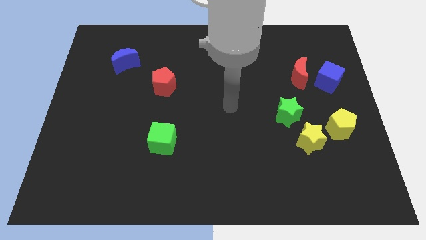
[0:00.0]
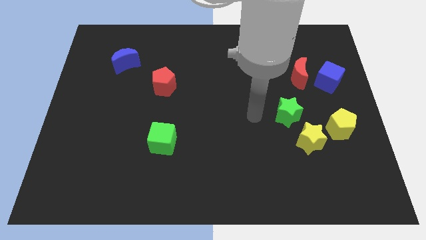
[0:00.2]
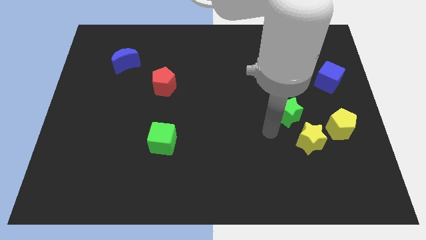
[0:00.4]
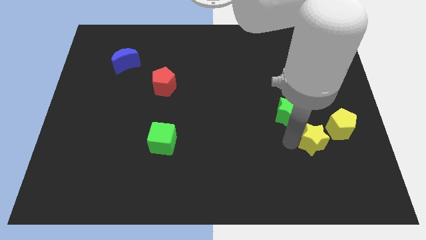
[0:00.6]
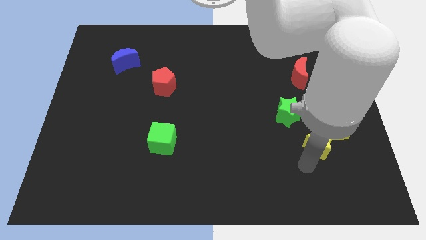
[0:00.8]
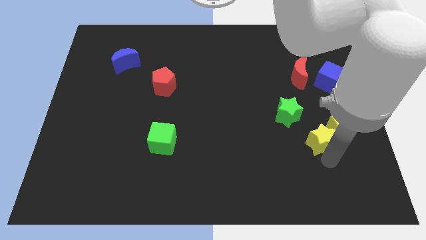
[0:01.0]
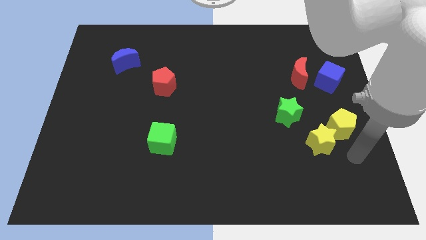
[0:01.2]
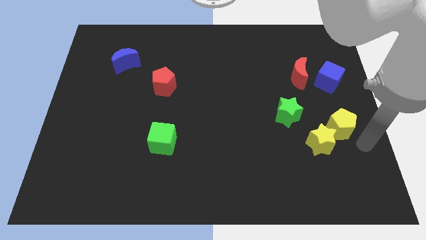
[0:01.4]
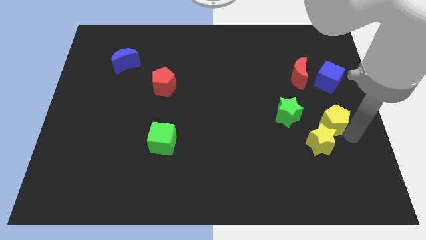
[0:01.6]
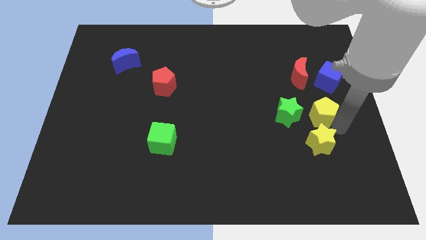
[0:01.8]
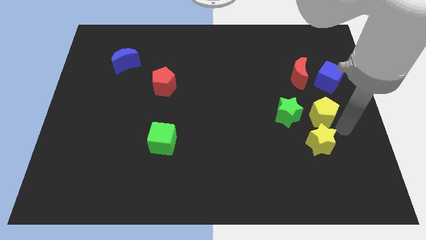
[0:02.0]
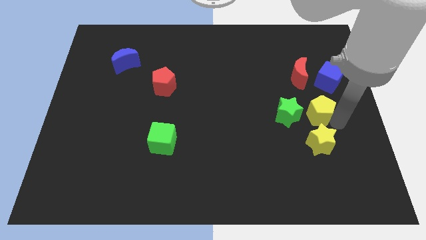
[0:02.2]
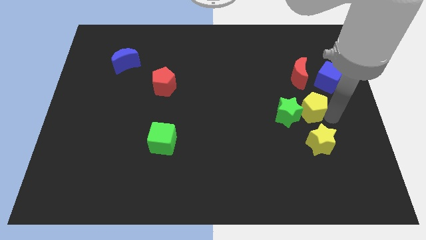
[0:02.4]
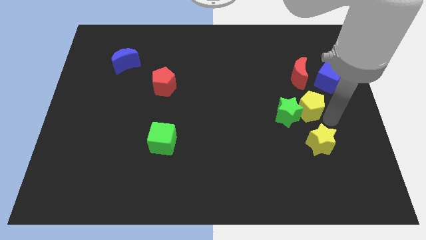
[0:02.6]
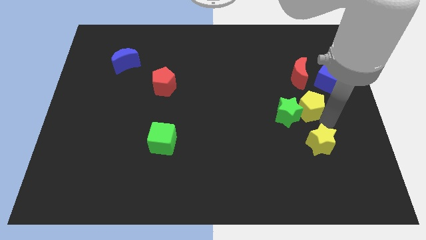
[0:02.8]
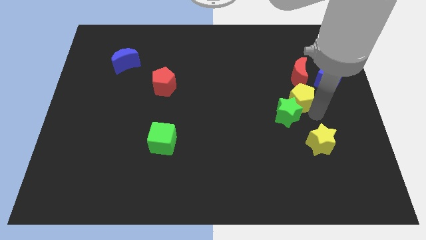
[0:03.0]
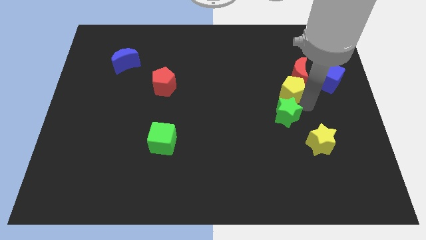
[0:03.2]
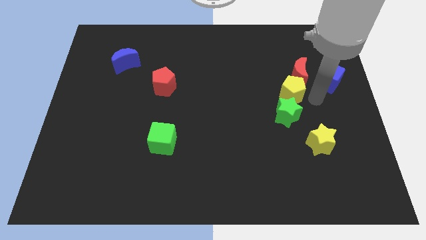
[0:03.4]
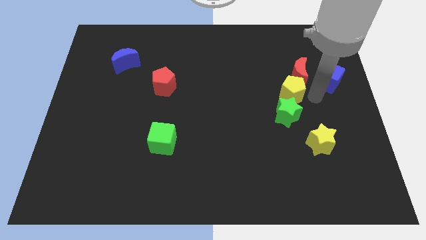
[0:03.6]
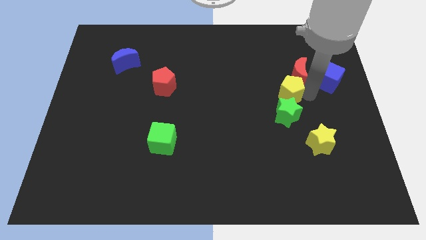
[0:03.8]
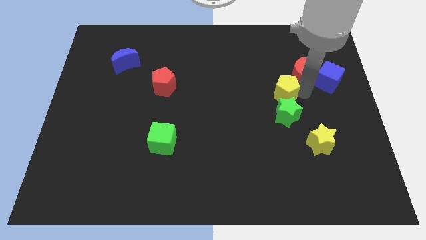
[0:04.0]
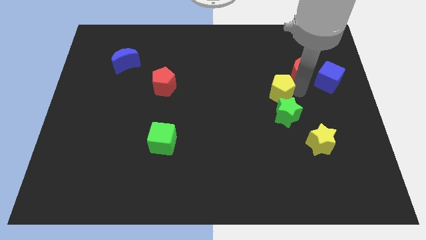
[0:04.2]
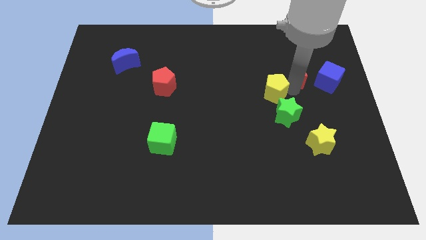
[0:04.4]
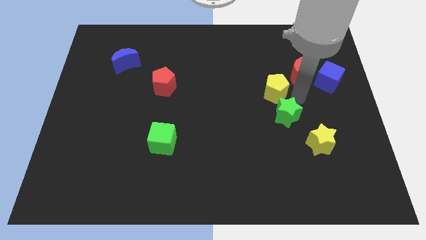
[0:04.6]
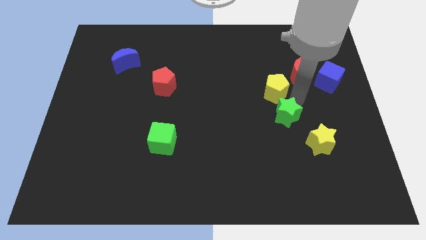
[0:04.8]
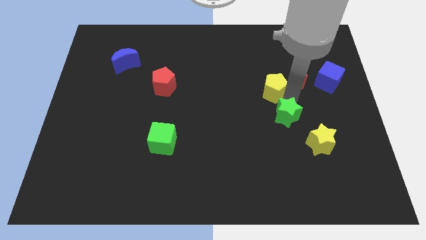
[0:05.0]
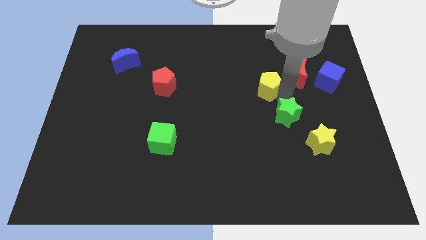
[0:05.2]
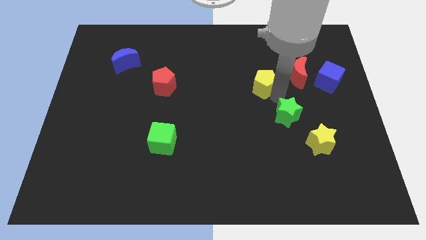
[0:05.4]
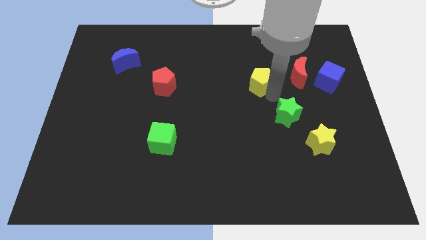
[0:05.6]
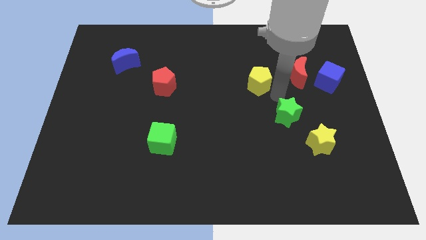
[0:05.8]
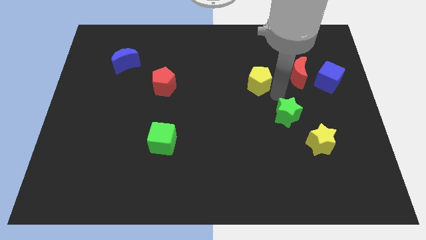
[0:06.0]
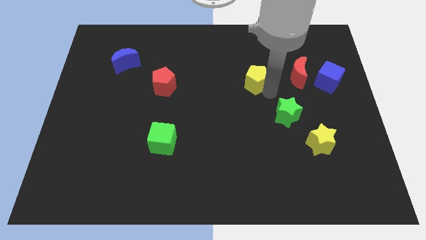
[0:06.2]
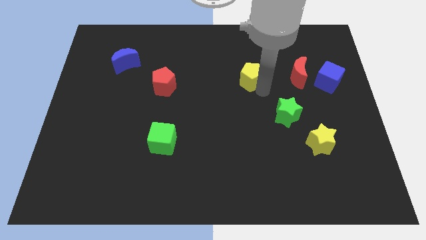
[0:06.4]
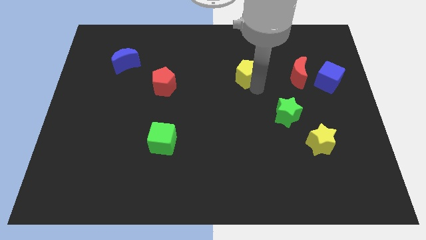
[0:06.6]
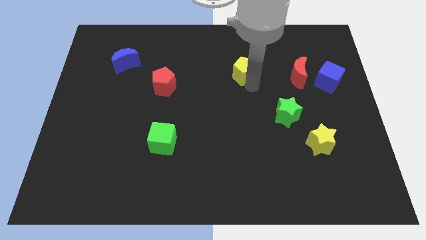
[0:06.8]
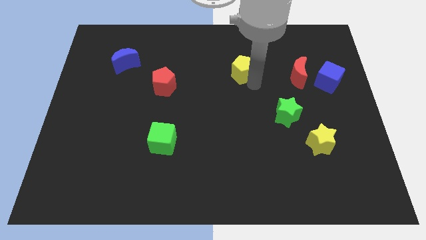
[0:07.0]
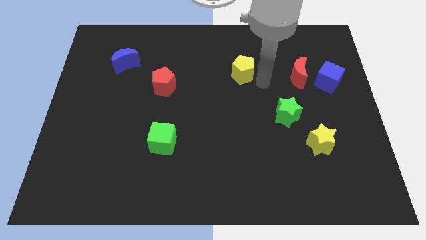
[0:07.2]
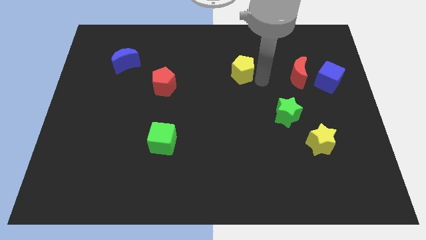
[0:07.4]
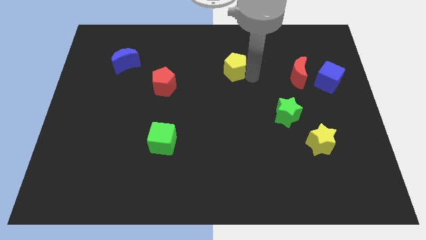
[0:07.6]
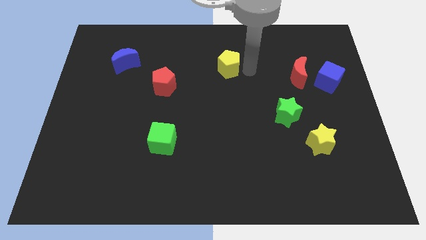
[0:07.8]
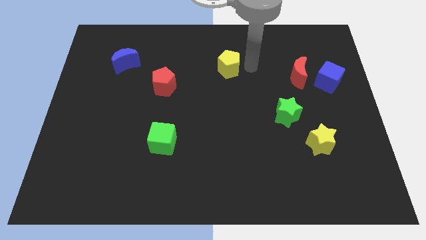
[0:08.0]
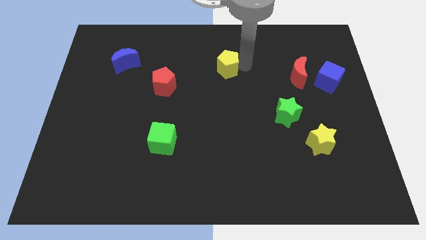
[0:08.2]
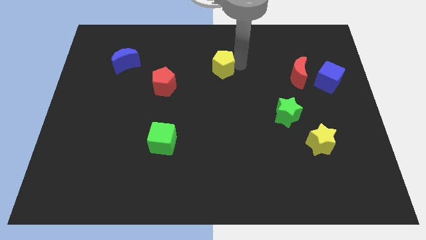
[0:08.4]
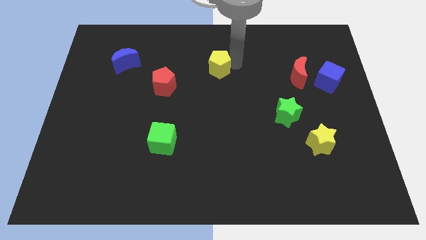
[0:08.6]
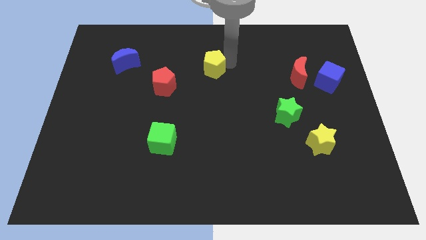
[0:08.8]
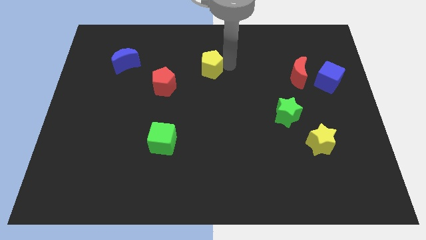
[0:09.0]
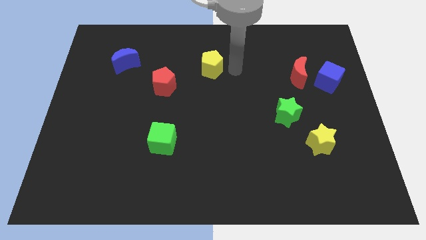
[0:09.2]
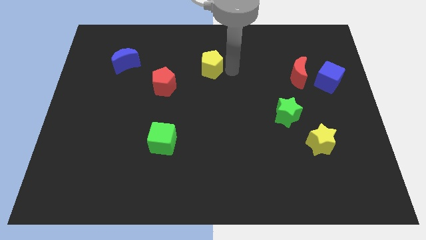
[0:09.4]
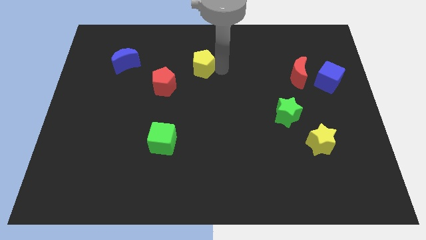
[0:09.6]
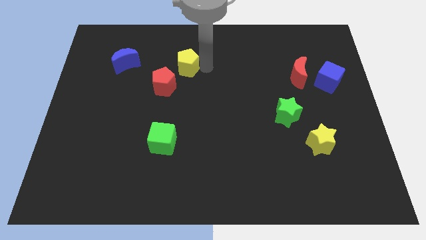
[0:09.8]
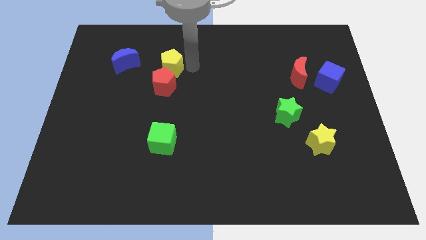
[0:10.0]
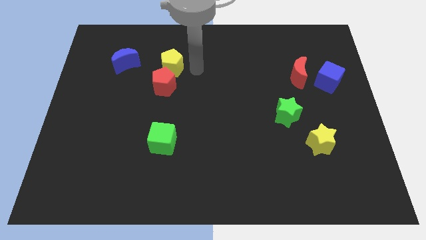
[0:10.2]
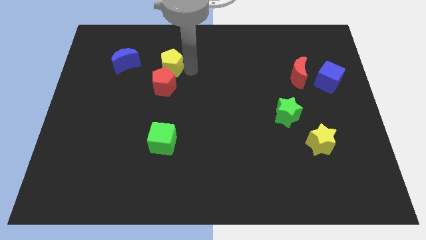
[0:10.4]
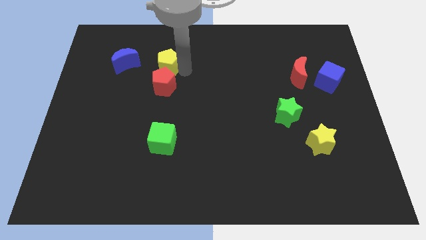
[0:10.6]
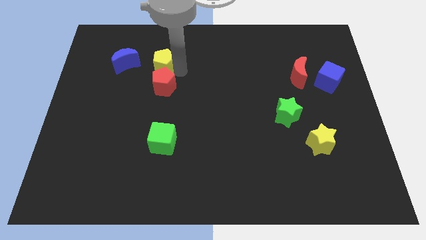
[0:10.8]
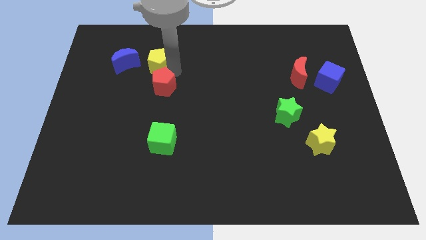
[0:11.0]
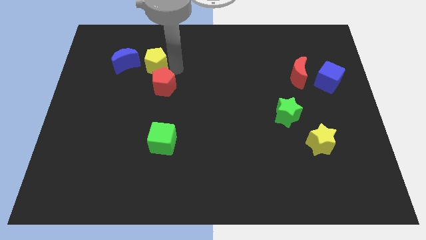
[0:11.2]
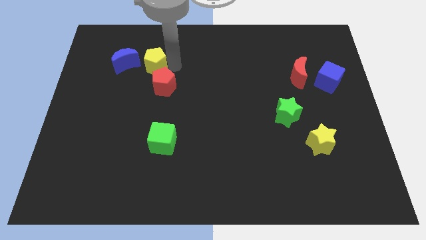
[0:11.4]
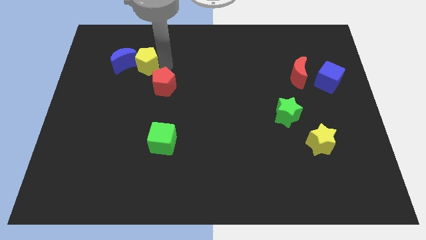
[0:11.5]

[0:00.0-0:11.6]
put the yellow pentagon towards the blue moon

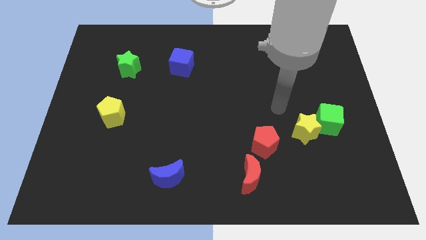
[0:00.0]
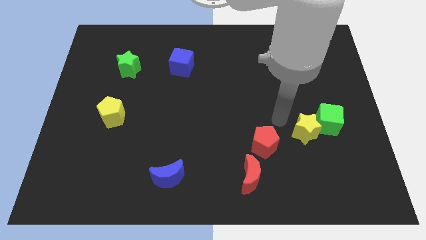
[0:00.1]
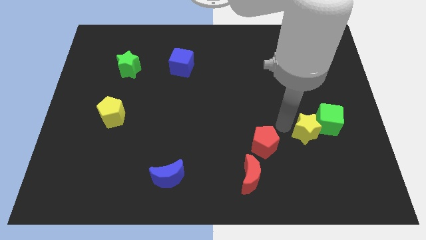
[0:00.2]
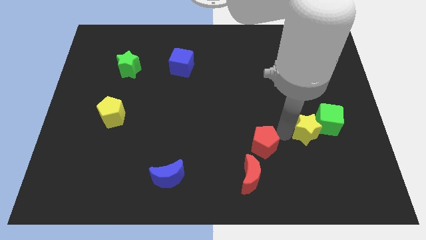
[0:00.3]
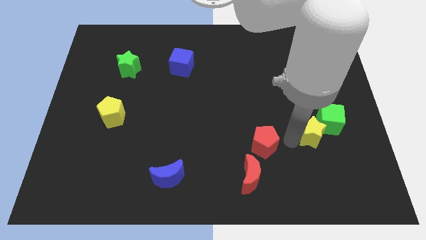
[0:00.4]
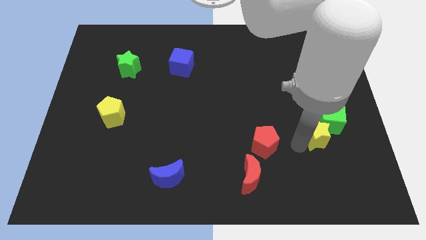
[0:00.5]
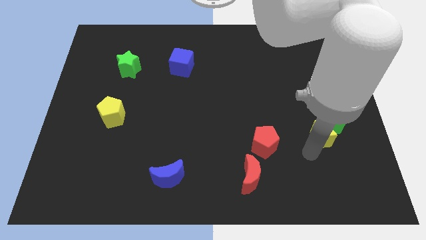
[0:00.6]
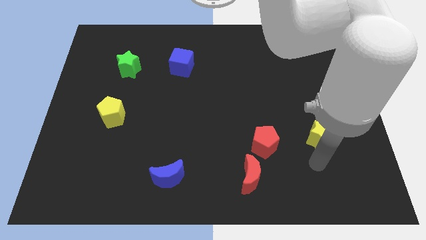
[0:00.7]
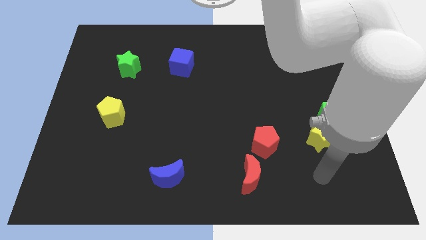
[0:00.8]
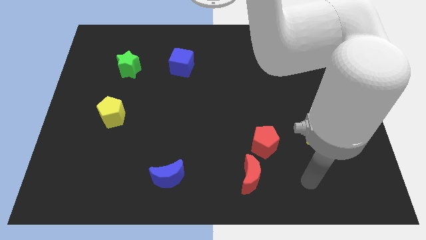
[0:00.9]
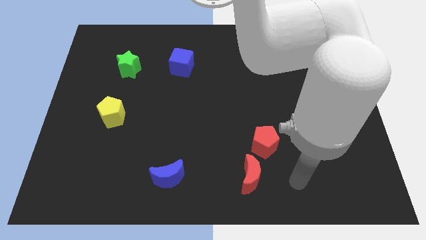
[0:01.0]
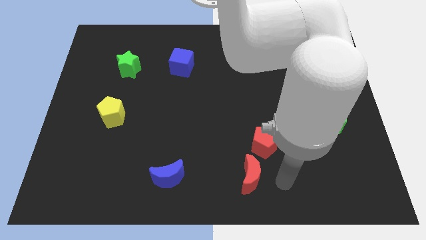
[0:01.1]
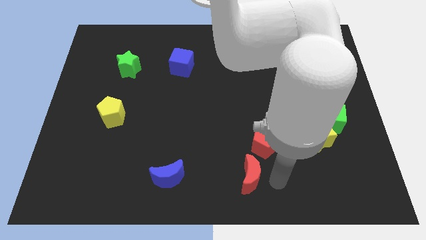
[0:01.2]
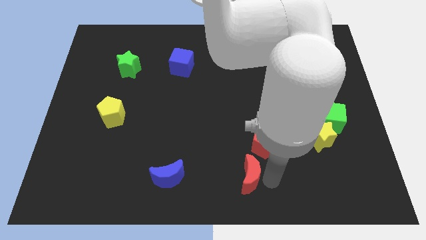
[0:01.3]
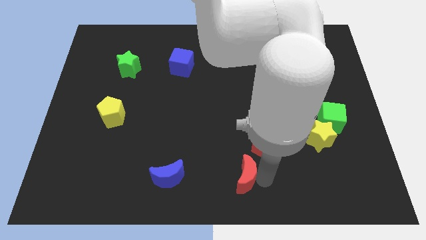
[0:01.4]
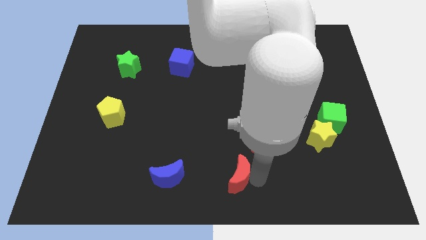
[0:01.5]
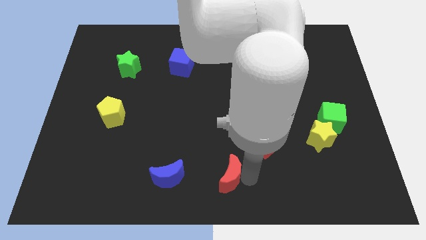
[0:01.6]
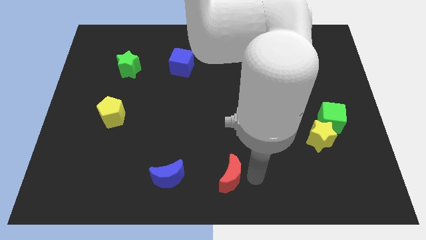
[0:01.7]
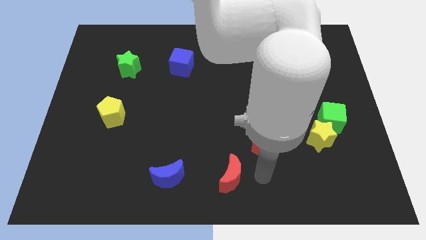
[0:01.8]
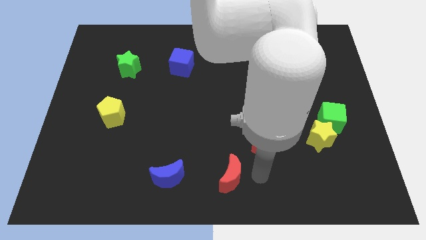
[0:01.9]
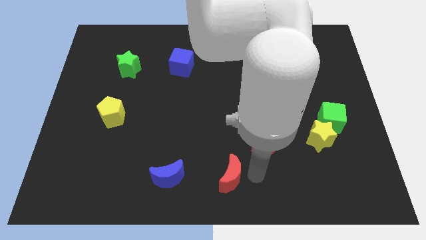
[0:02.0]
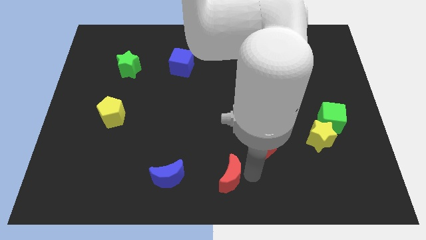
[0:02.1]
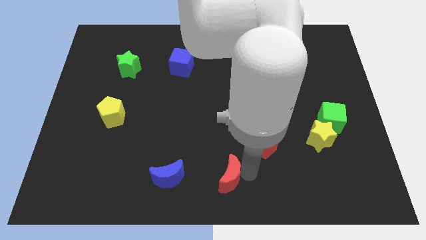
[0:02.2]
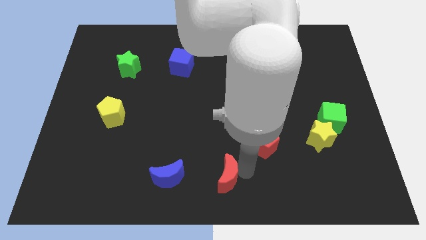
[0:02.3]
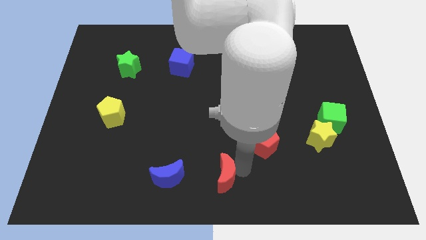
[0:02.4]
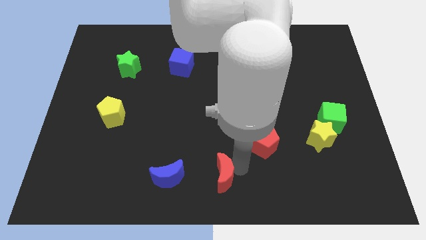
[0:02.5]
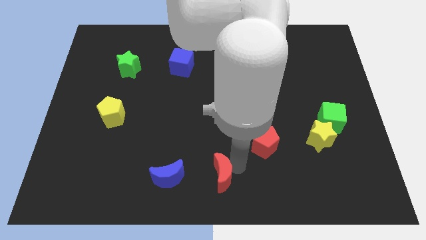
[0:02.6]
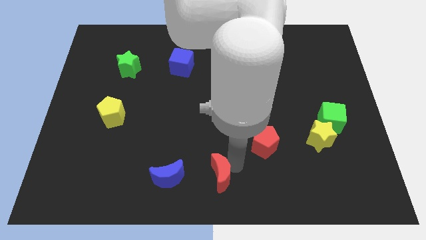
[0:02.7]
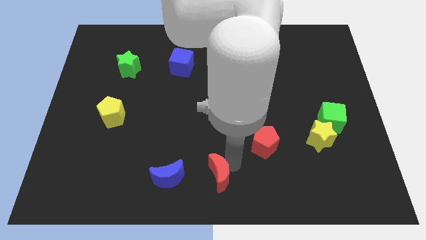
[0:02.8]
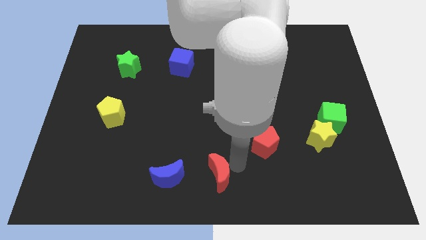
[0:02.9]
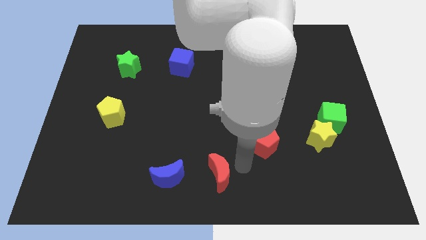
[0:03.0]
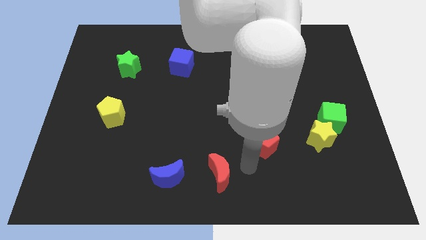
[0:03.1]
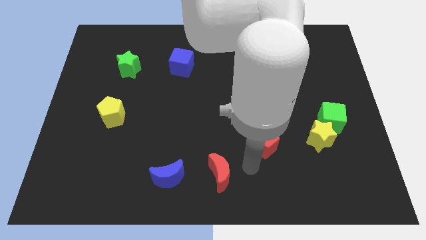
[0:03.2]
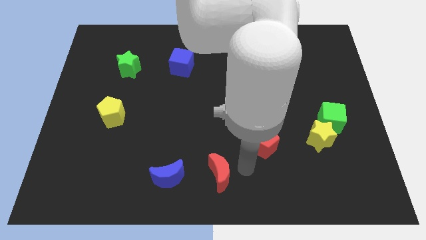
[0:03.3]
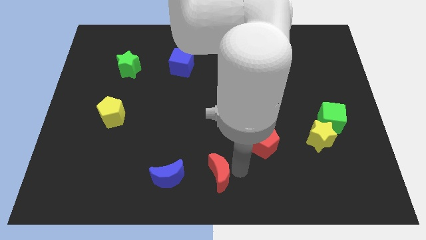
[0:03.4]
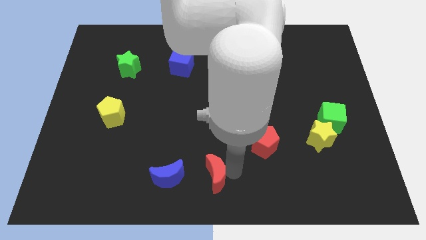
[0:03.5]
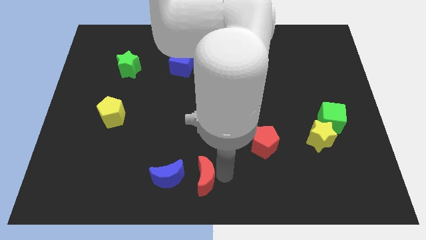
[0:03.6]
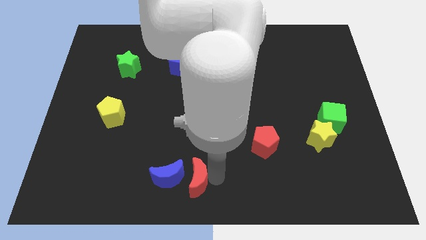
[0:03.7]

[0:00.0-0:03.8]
slide the red moon to the blue moon
